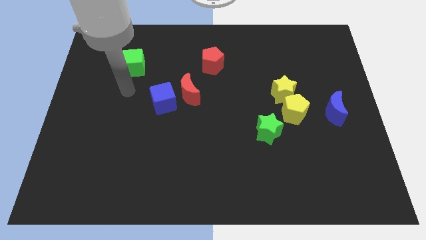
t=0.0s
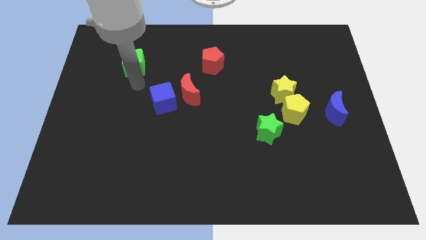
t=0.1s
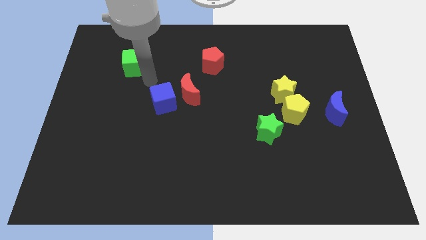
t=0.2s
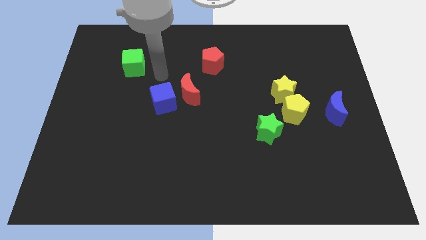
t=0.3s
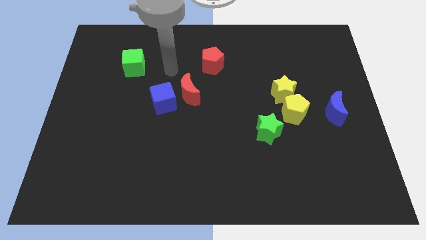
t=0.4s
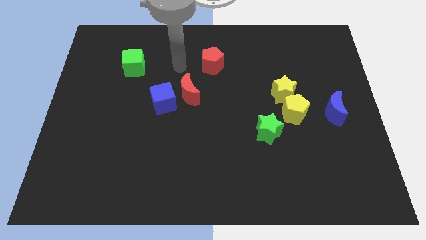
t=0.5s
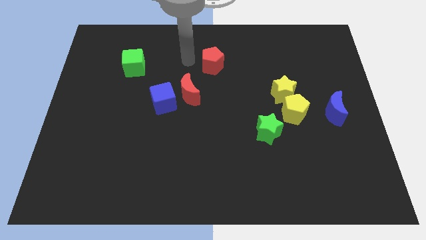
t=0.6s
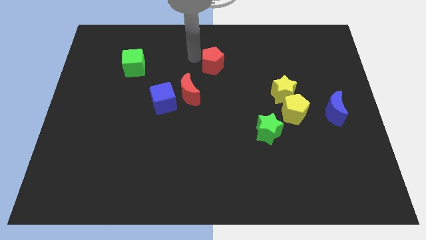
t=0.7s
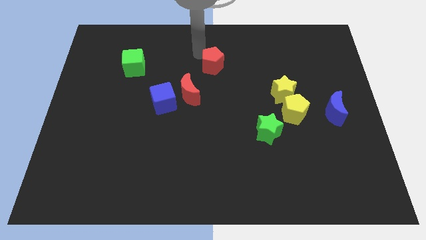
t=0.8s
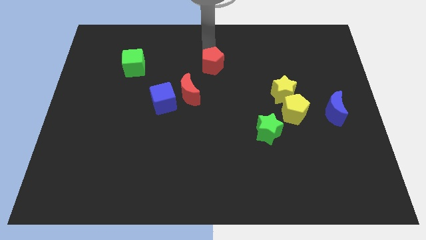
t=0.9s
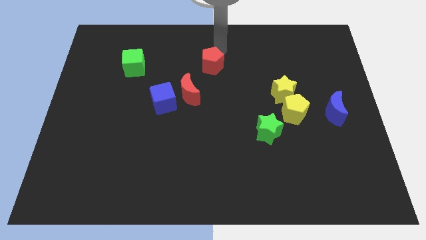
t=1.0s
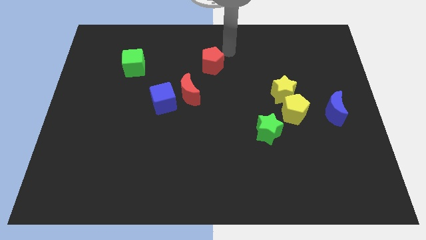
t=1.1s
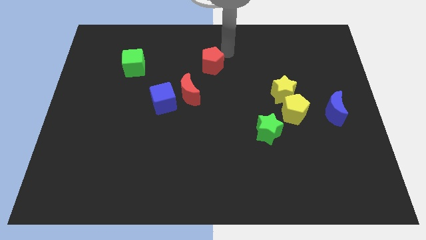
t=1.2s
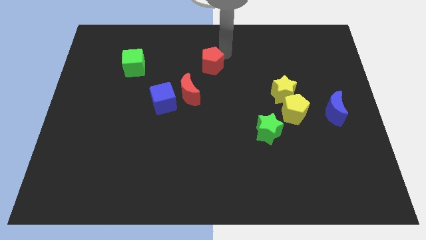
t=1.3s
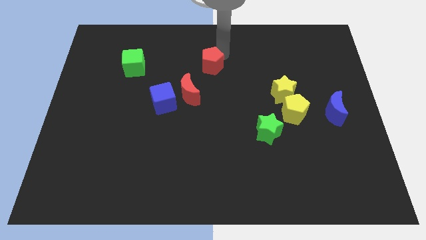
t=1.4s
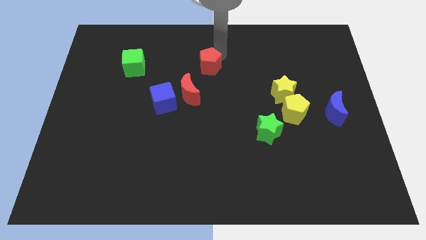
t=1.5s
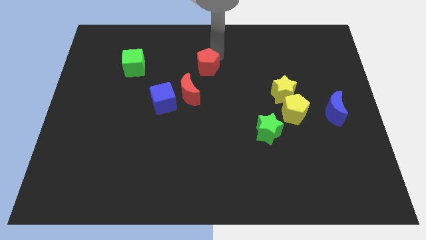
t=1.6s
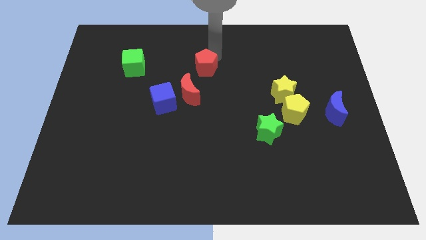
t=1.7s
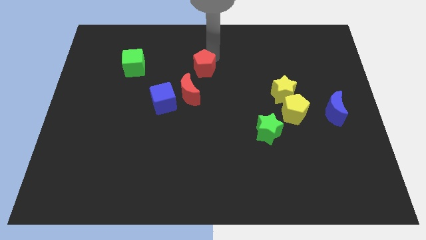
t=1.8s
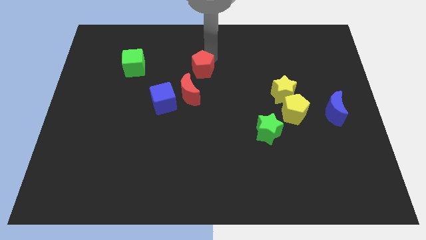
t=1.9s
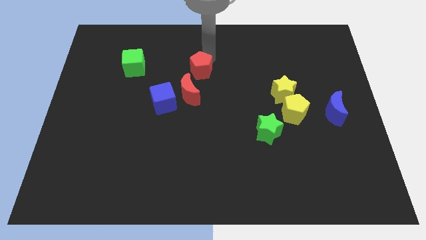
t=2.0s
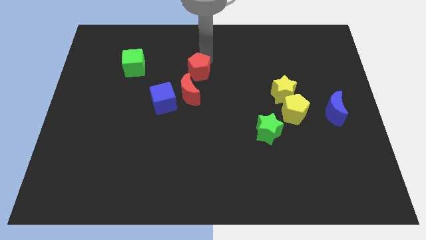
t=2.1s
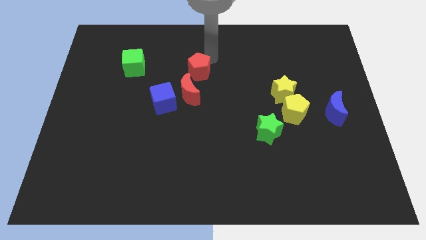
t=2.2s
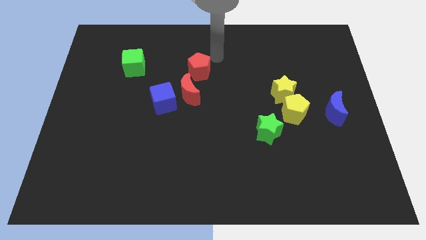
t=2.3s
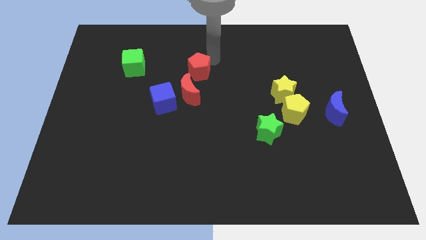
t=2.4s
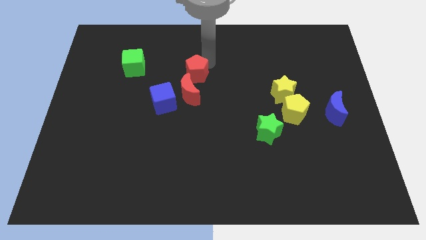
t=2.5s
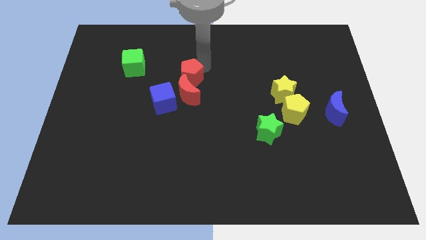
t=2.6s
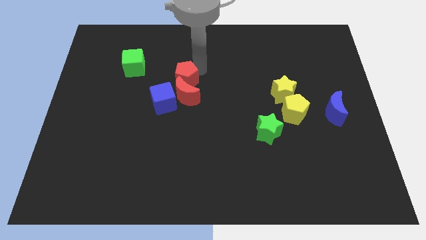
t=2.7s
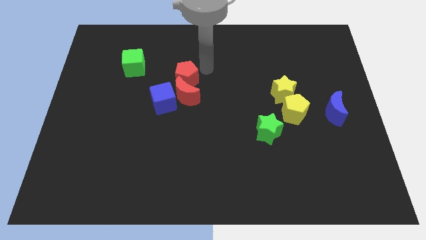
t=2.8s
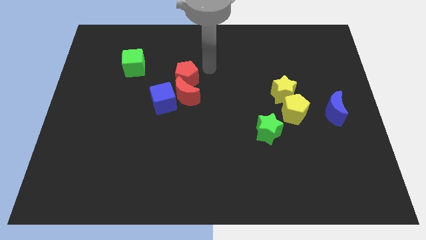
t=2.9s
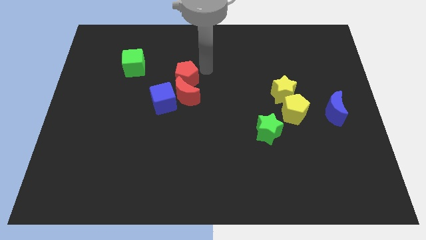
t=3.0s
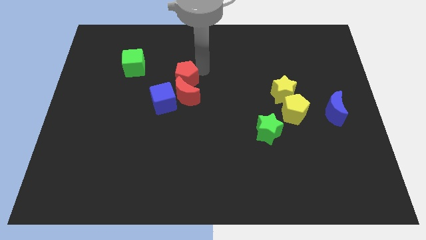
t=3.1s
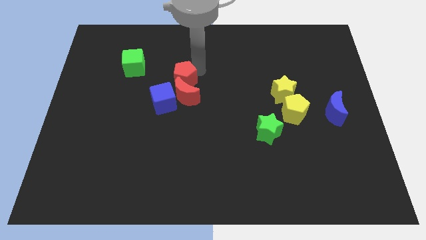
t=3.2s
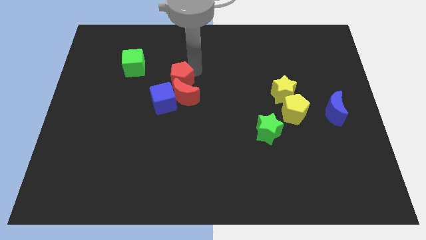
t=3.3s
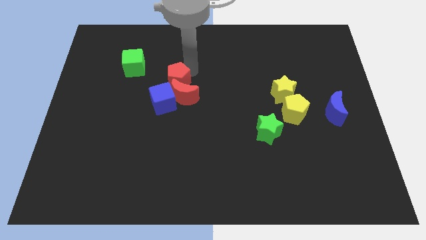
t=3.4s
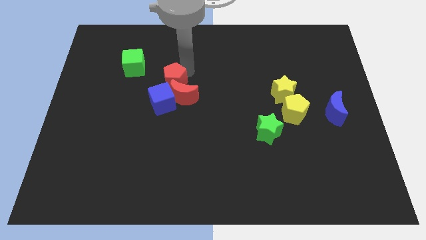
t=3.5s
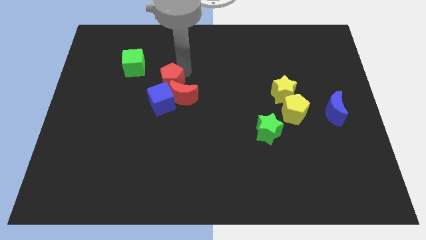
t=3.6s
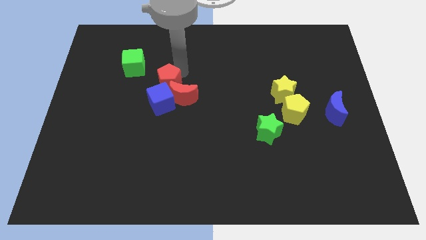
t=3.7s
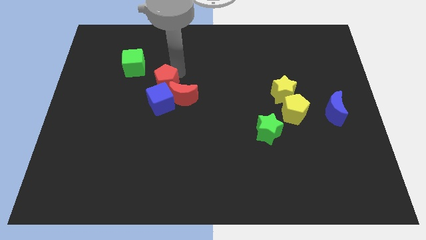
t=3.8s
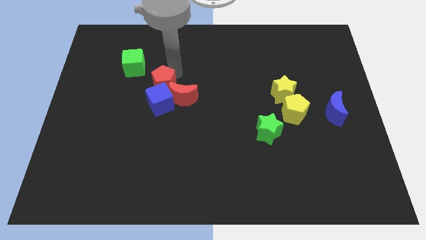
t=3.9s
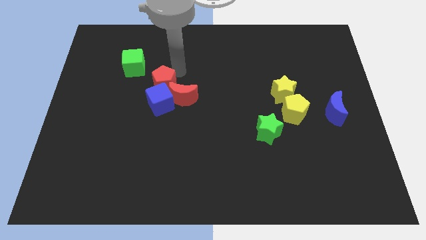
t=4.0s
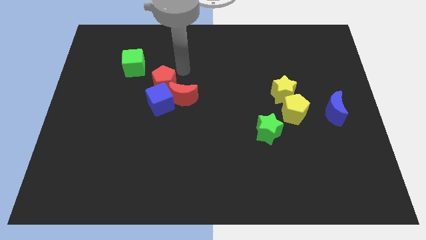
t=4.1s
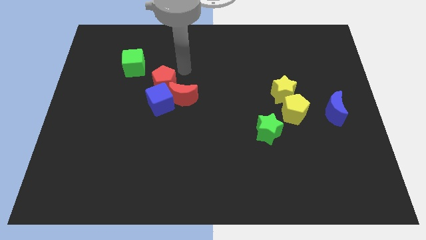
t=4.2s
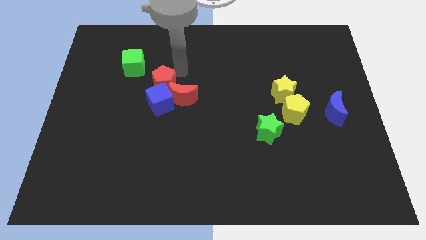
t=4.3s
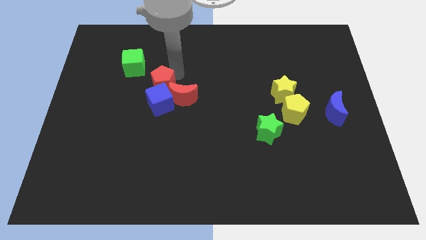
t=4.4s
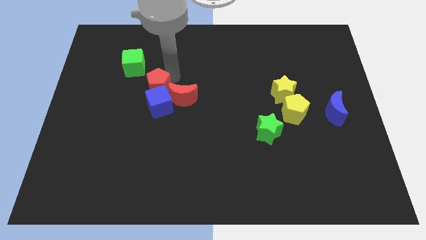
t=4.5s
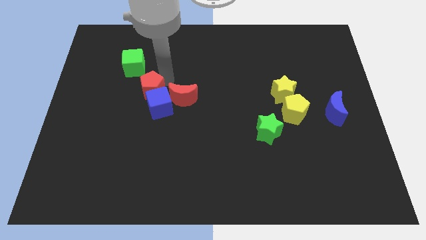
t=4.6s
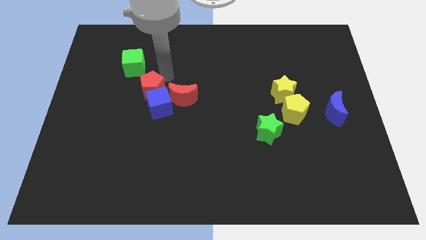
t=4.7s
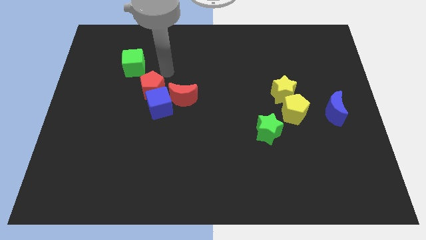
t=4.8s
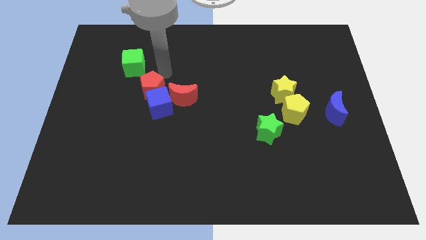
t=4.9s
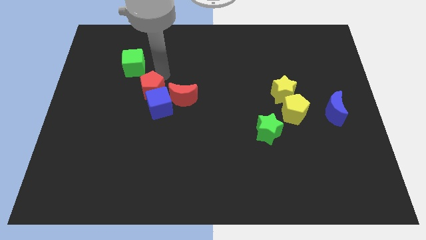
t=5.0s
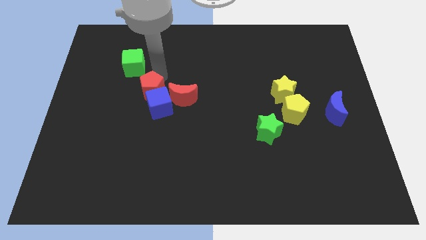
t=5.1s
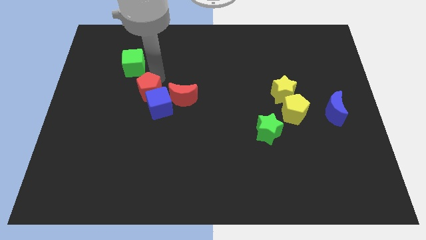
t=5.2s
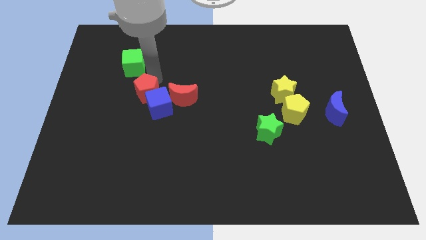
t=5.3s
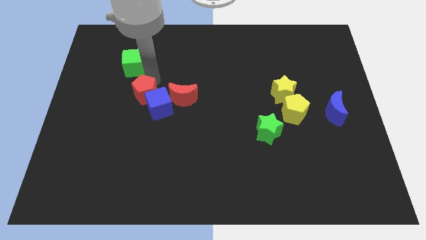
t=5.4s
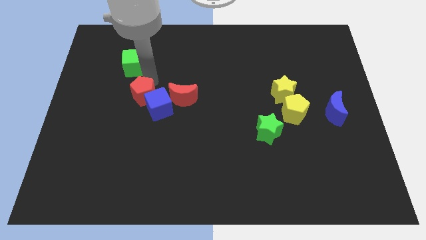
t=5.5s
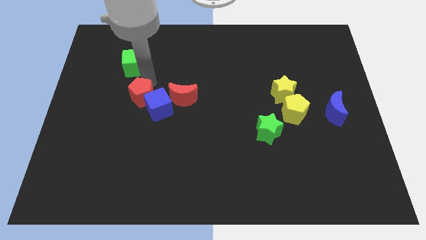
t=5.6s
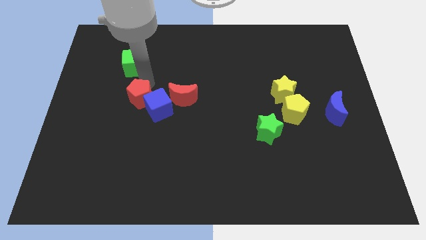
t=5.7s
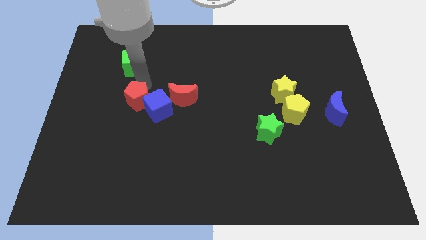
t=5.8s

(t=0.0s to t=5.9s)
push the red pentagon downwards and then left

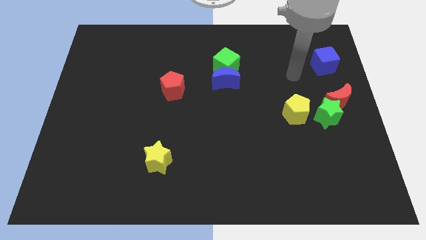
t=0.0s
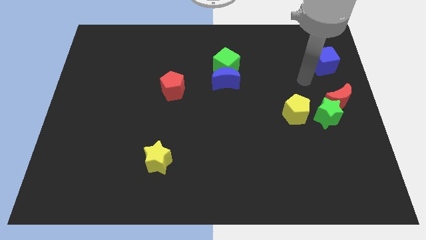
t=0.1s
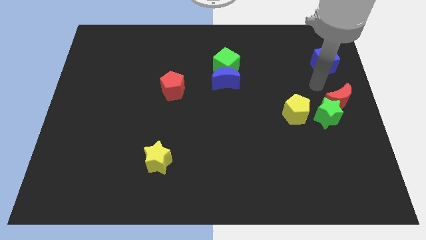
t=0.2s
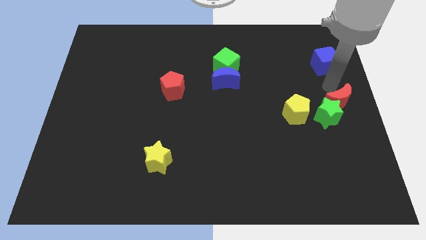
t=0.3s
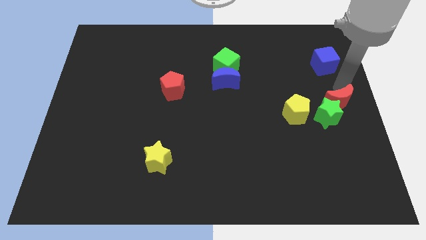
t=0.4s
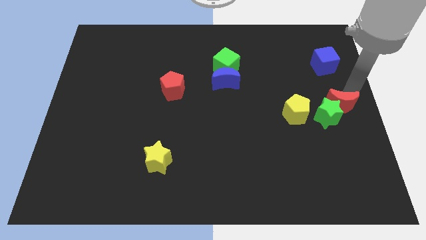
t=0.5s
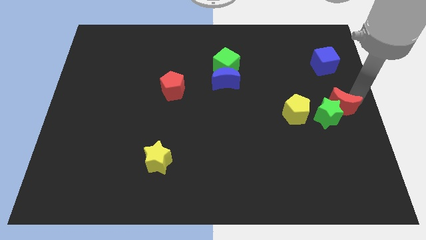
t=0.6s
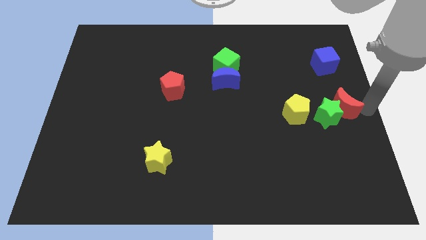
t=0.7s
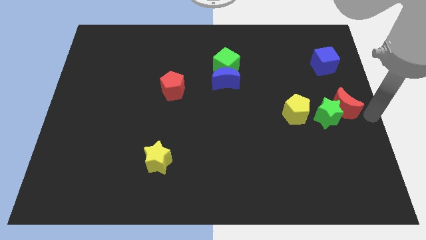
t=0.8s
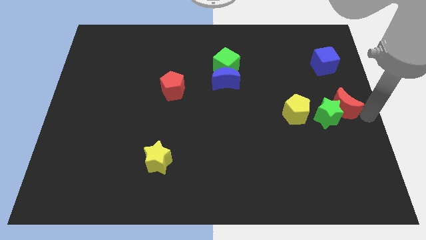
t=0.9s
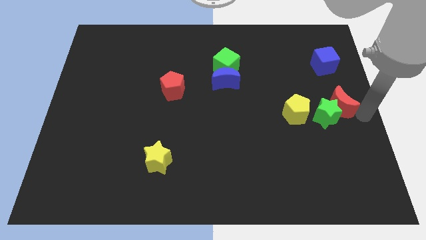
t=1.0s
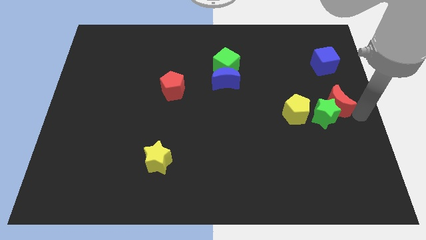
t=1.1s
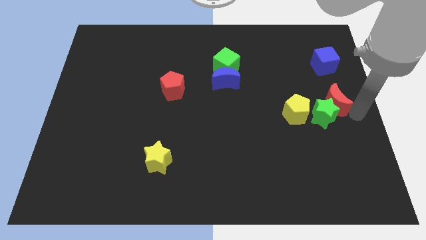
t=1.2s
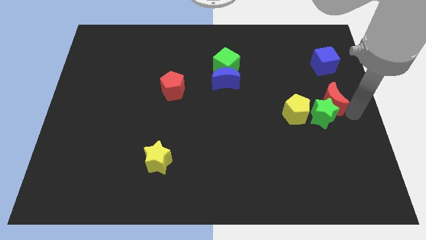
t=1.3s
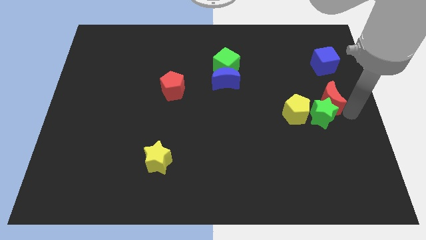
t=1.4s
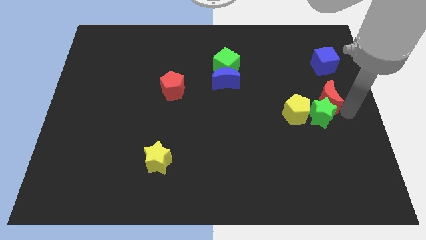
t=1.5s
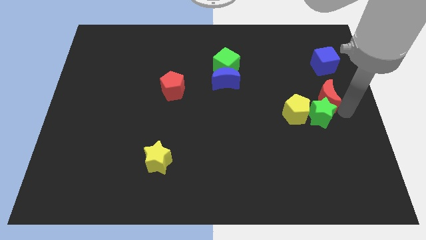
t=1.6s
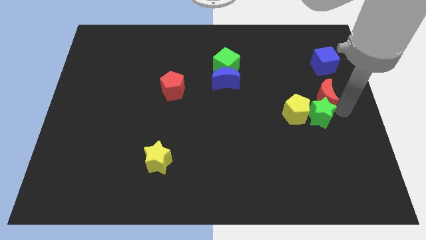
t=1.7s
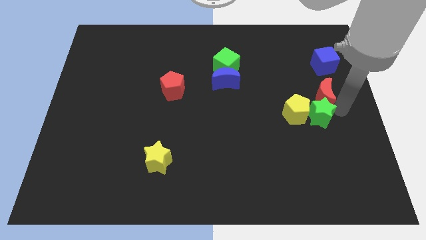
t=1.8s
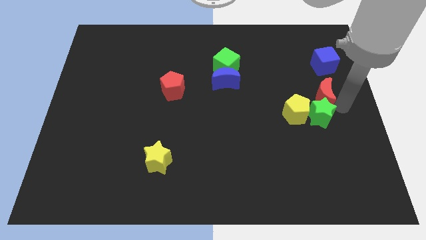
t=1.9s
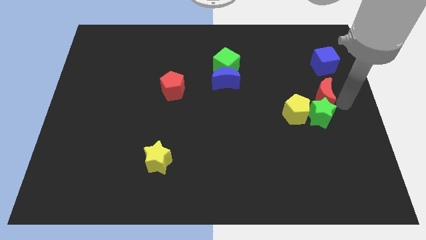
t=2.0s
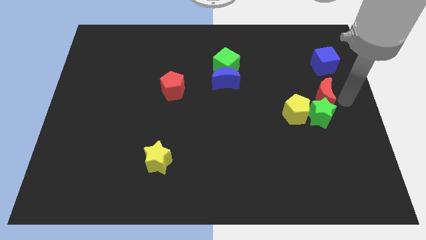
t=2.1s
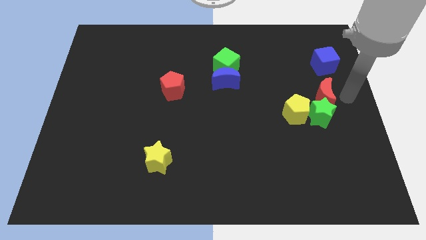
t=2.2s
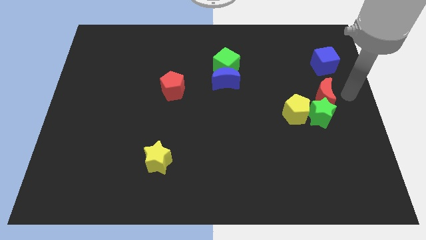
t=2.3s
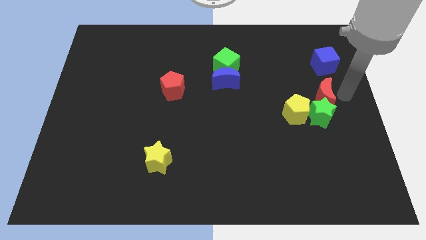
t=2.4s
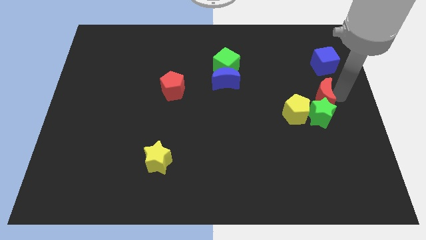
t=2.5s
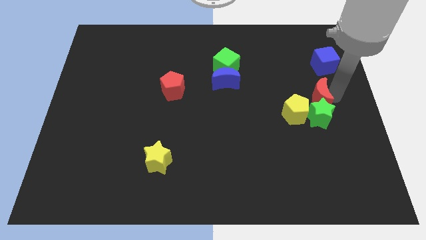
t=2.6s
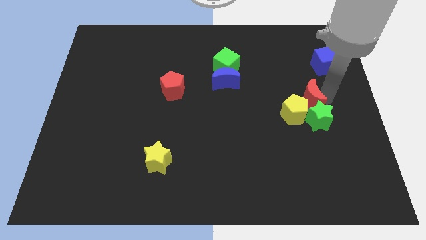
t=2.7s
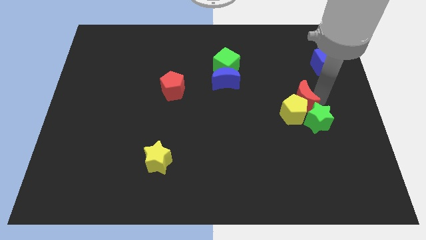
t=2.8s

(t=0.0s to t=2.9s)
slightly move the red moon to the left
